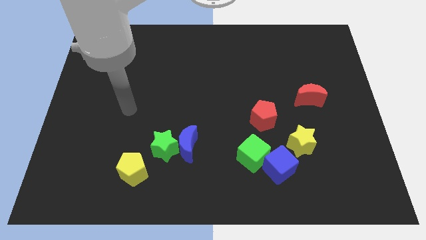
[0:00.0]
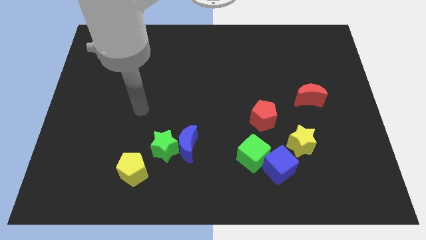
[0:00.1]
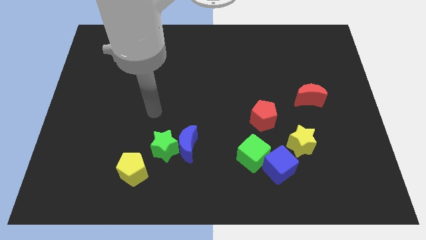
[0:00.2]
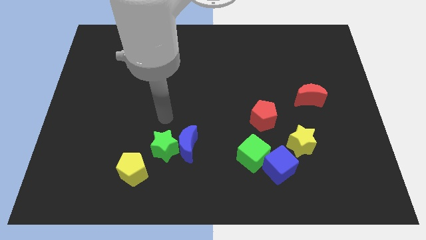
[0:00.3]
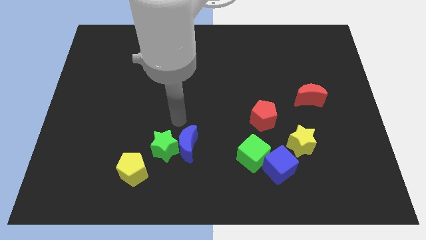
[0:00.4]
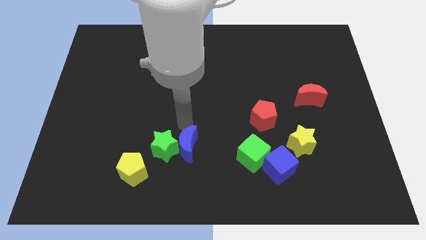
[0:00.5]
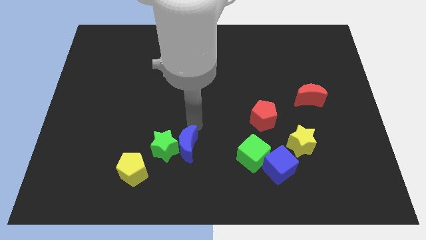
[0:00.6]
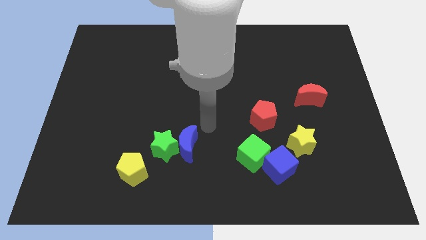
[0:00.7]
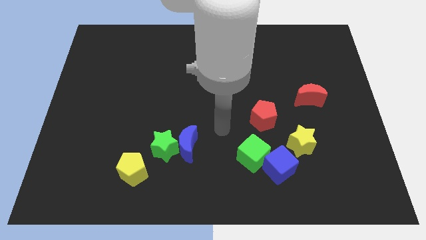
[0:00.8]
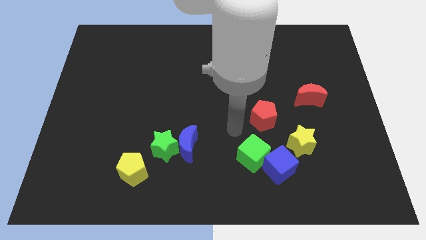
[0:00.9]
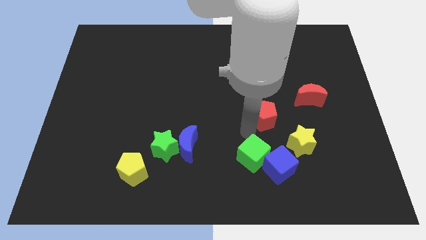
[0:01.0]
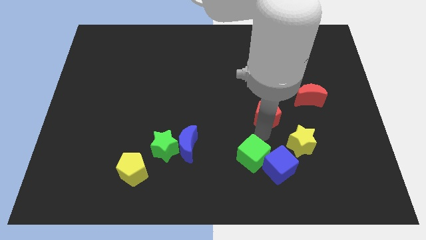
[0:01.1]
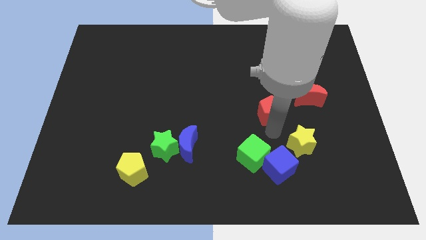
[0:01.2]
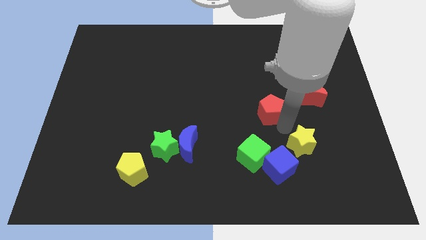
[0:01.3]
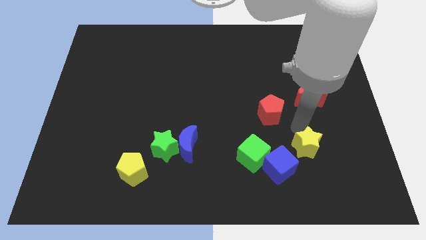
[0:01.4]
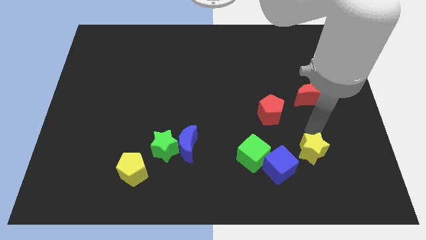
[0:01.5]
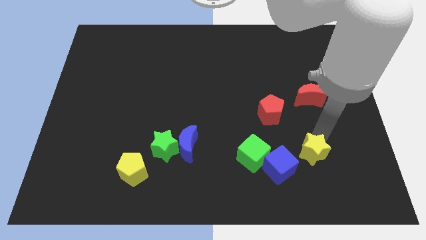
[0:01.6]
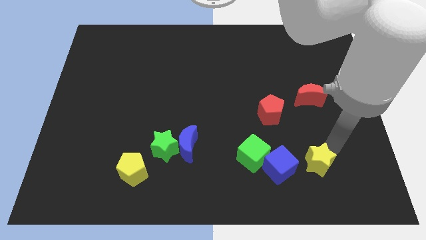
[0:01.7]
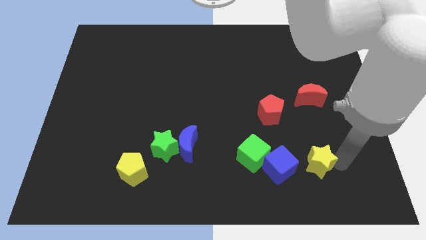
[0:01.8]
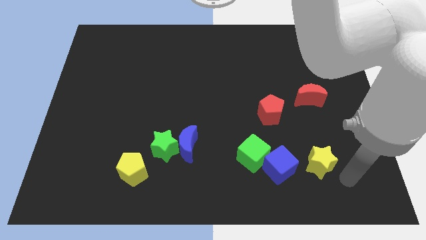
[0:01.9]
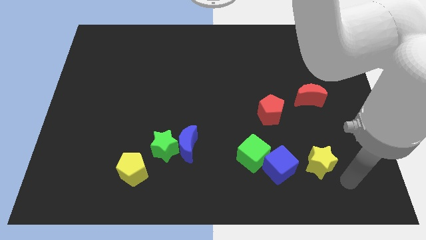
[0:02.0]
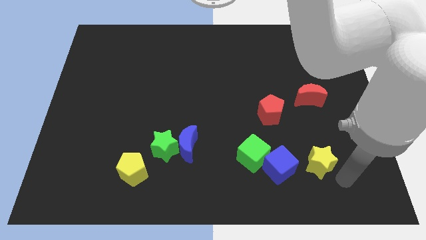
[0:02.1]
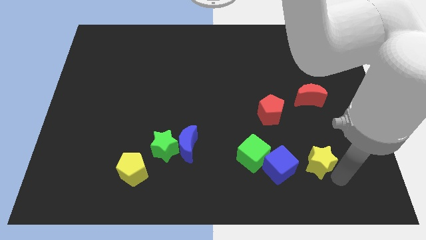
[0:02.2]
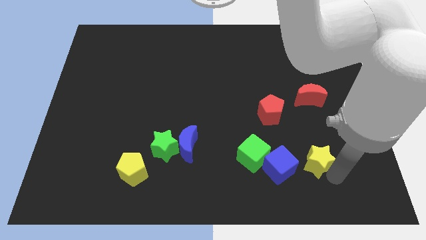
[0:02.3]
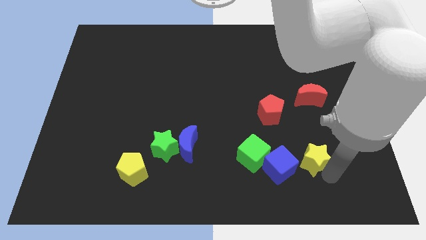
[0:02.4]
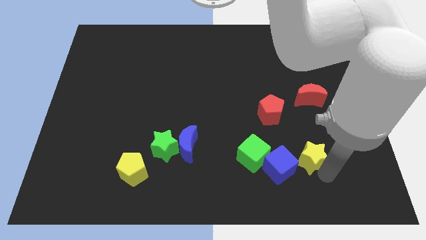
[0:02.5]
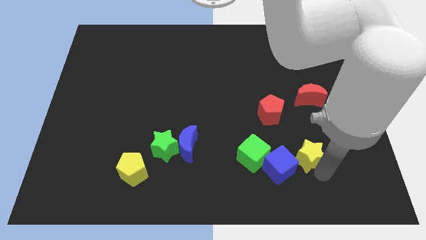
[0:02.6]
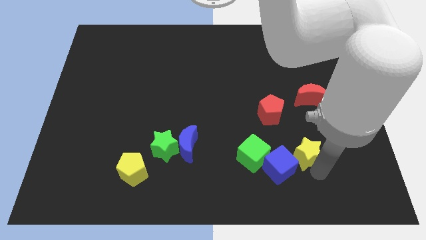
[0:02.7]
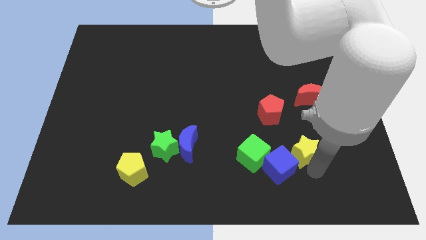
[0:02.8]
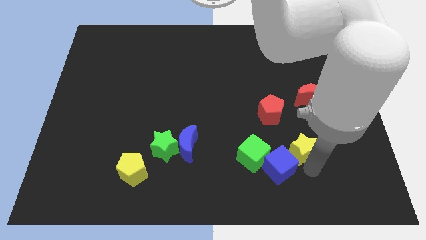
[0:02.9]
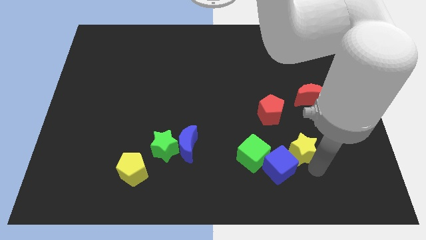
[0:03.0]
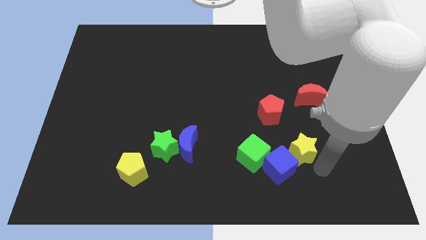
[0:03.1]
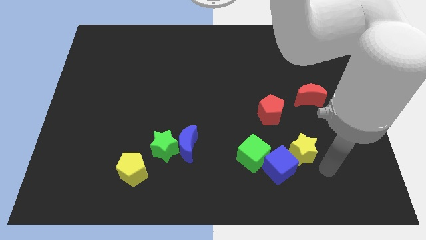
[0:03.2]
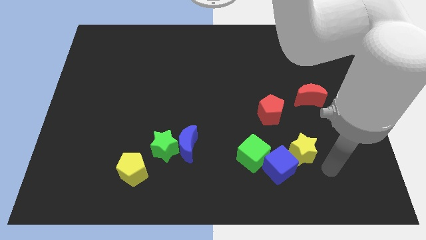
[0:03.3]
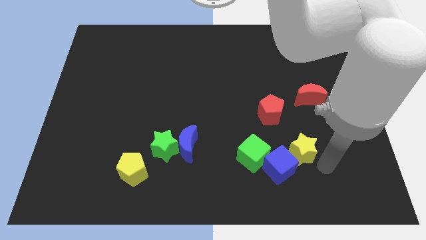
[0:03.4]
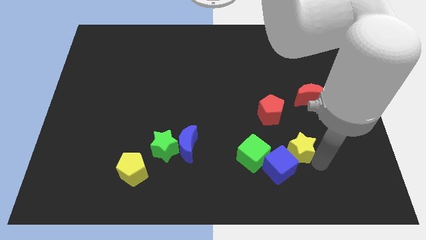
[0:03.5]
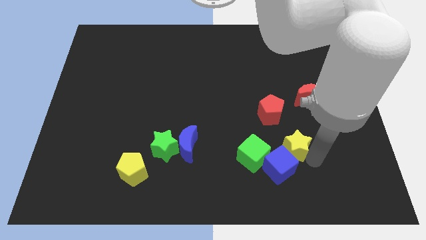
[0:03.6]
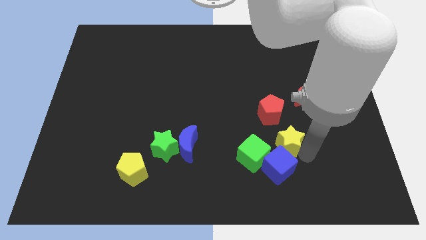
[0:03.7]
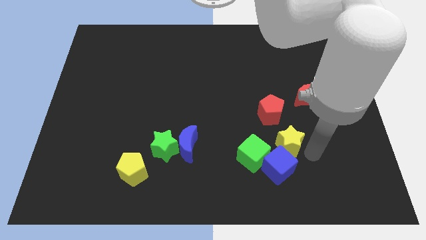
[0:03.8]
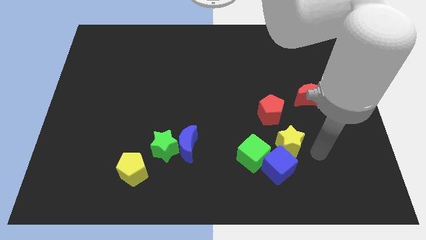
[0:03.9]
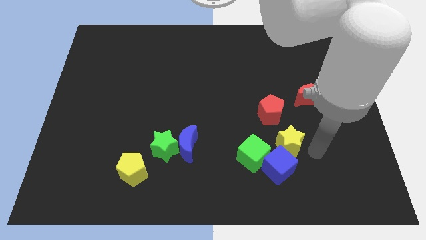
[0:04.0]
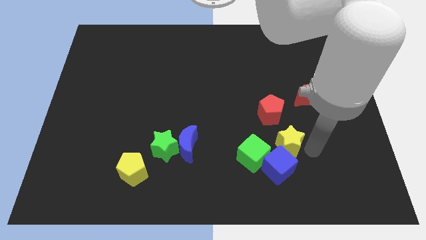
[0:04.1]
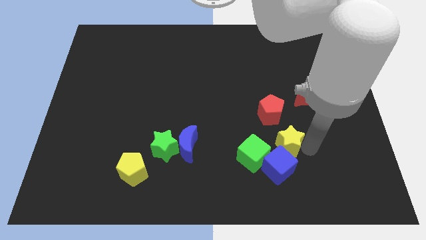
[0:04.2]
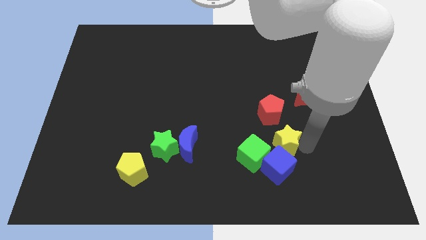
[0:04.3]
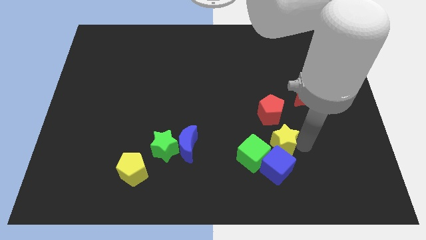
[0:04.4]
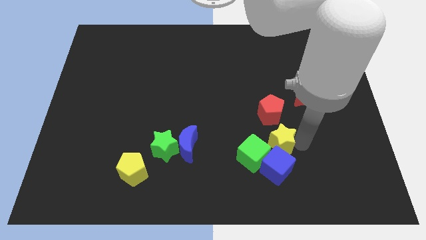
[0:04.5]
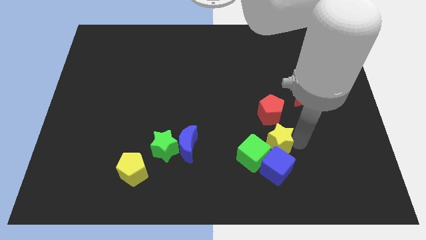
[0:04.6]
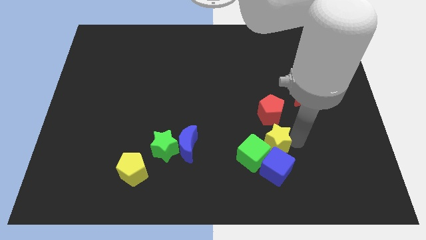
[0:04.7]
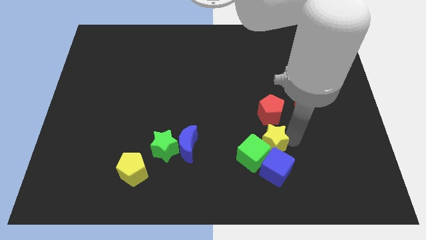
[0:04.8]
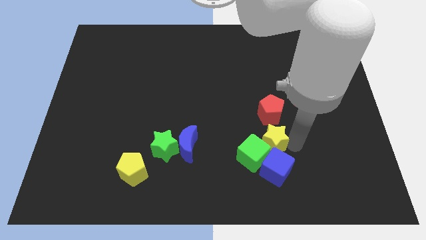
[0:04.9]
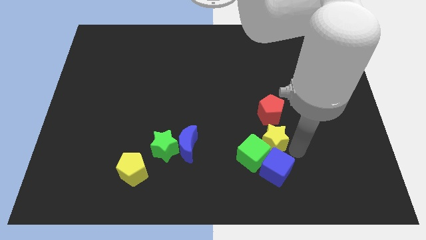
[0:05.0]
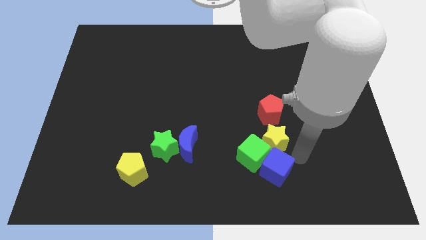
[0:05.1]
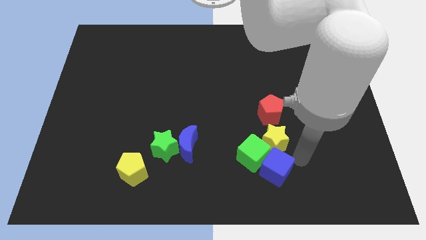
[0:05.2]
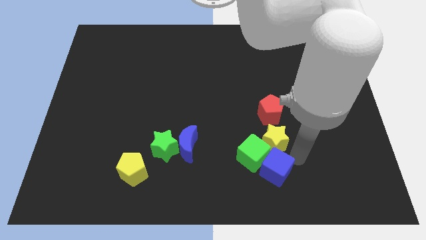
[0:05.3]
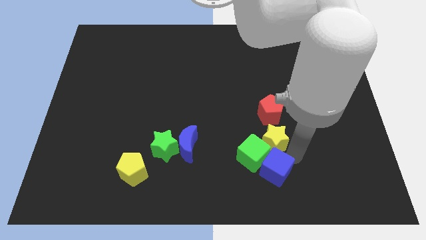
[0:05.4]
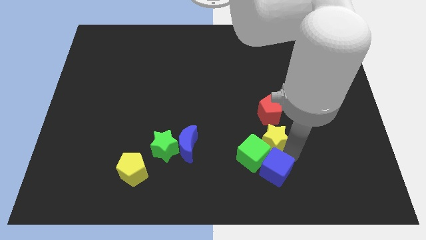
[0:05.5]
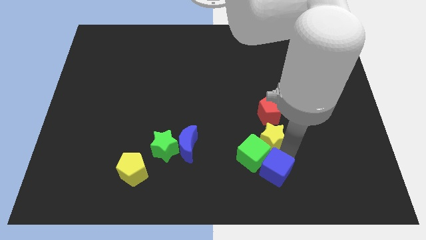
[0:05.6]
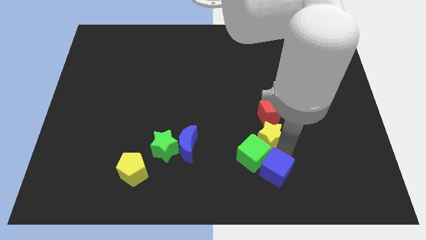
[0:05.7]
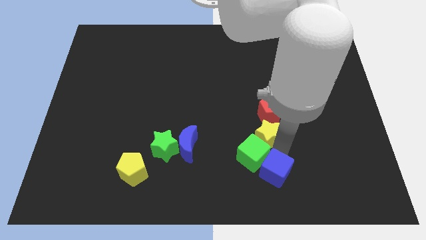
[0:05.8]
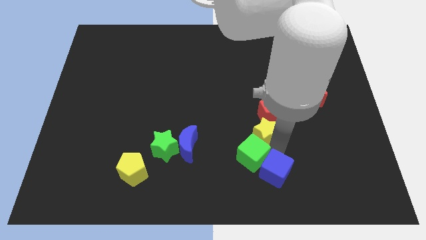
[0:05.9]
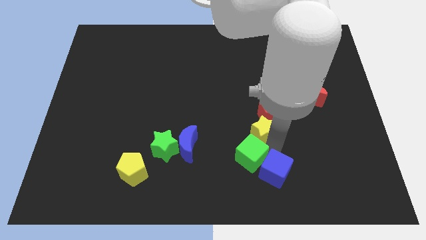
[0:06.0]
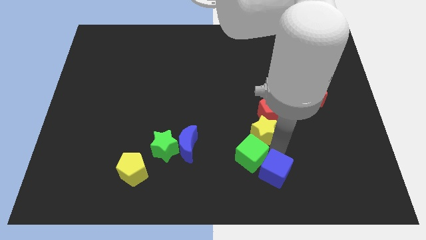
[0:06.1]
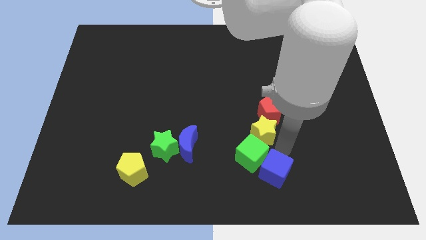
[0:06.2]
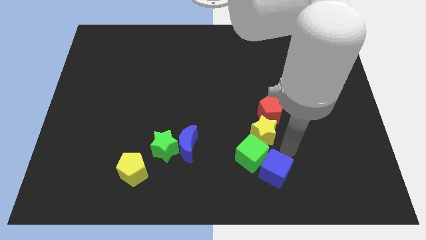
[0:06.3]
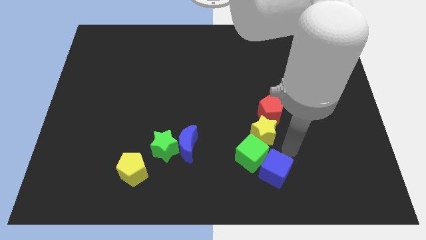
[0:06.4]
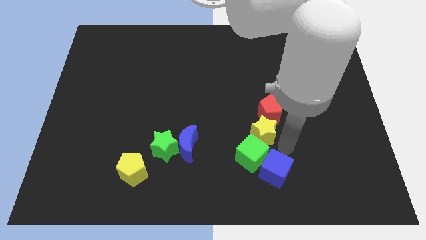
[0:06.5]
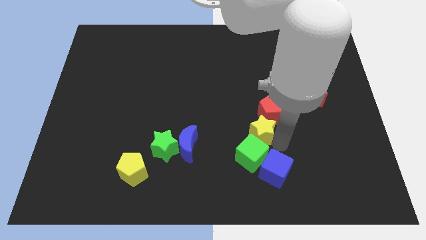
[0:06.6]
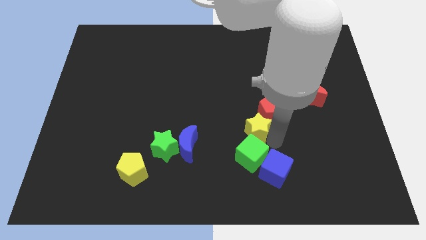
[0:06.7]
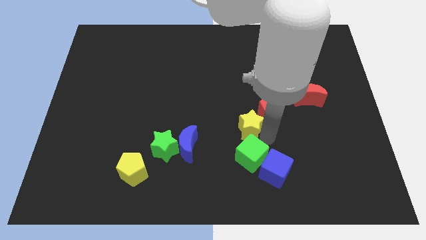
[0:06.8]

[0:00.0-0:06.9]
slide the yellow star to the center

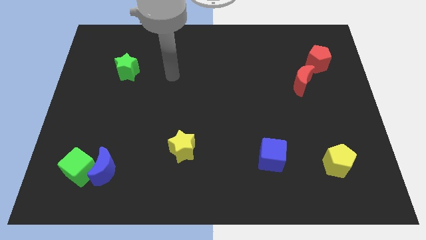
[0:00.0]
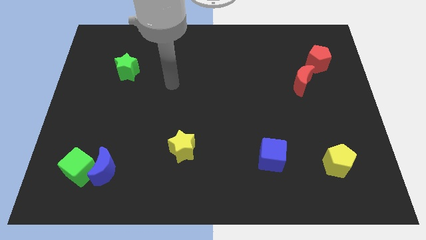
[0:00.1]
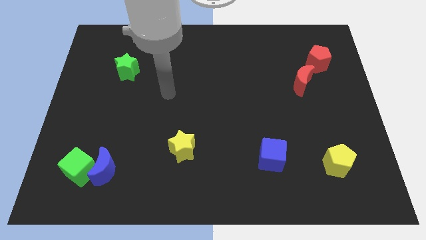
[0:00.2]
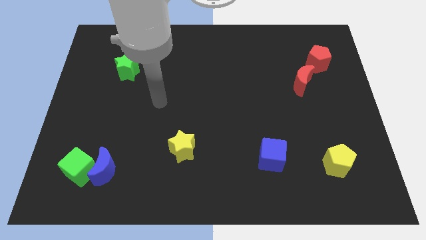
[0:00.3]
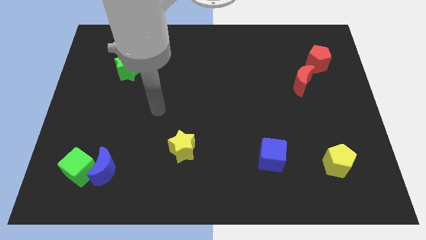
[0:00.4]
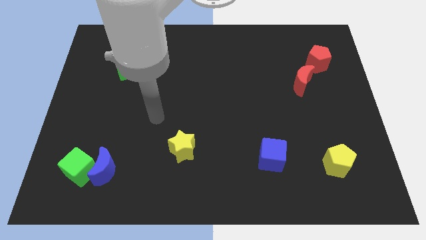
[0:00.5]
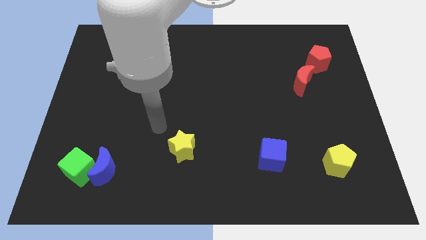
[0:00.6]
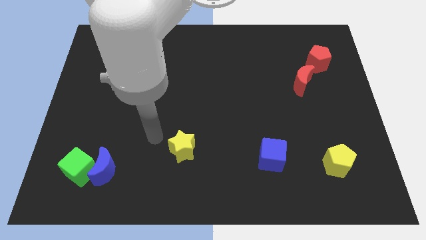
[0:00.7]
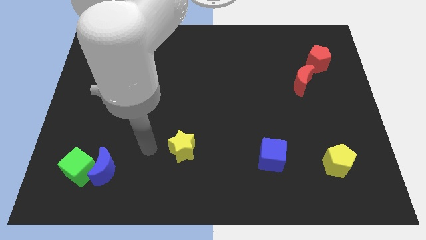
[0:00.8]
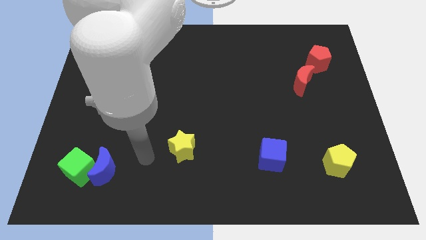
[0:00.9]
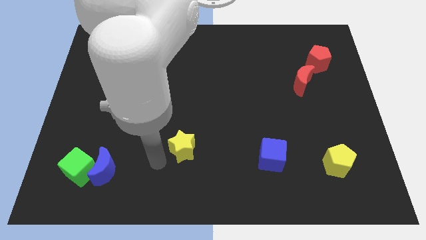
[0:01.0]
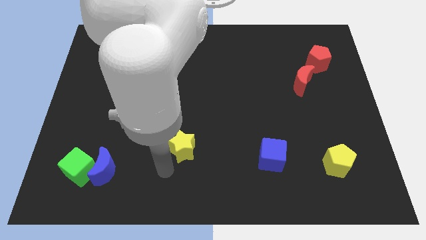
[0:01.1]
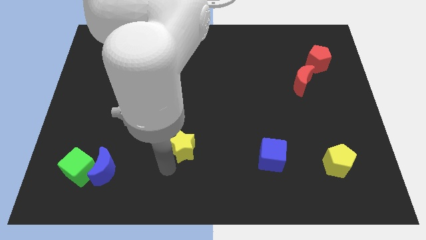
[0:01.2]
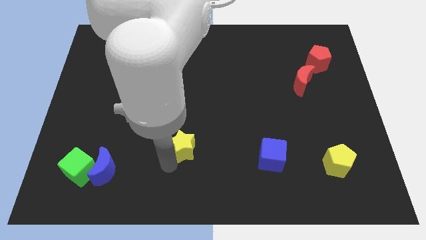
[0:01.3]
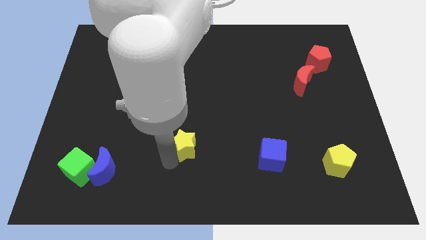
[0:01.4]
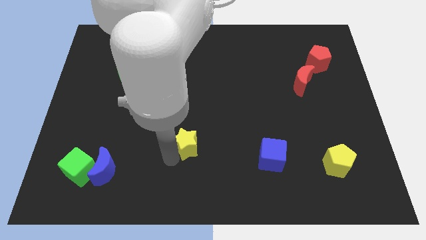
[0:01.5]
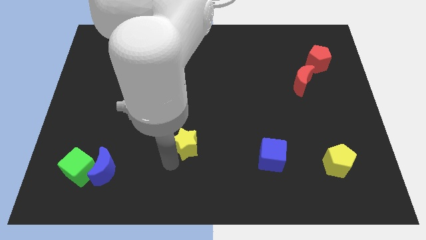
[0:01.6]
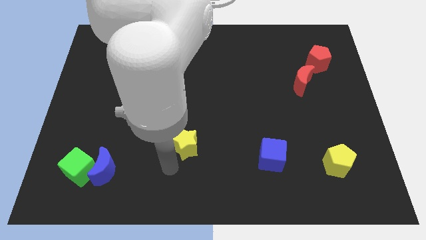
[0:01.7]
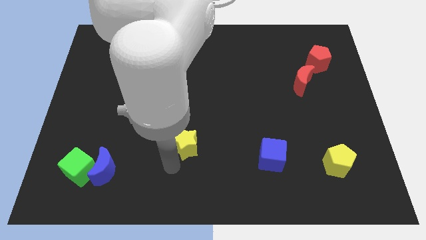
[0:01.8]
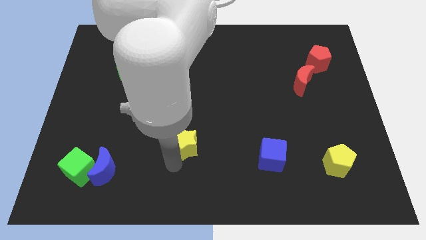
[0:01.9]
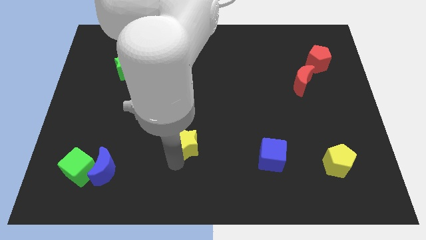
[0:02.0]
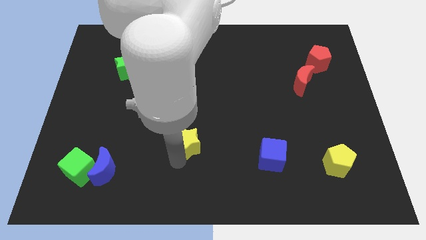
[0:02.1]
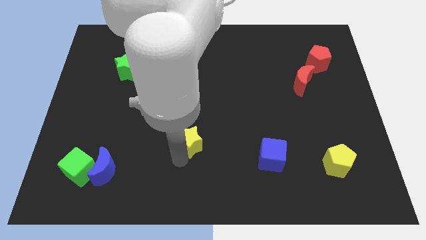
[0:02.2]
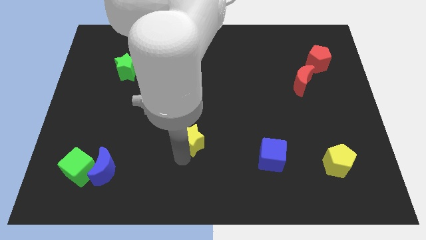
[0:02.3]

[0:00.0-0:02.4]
push the yellow star to the middle of the board
